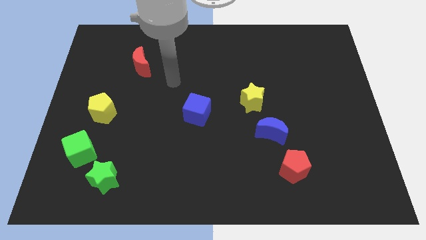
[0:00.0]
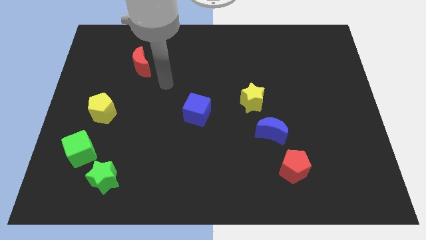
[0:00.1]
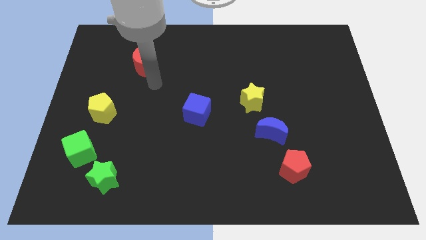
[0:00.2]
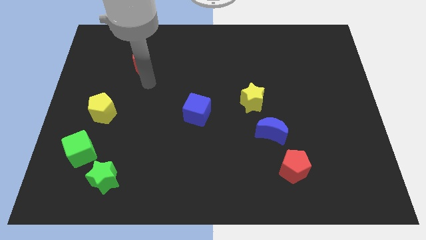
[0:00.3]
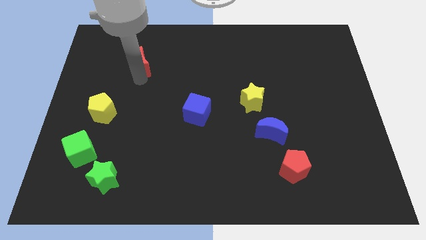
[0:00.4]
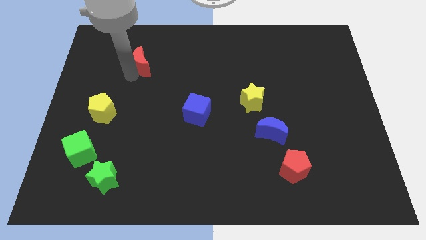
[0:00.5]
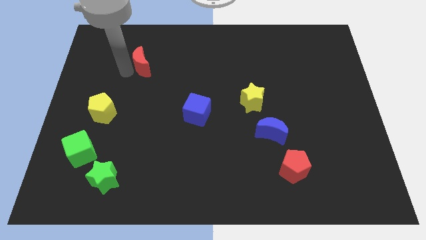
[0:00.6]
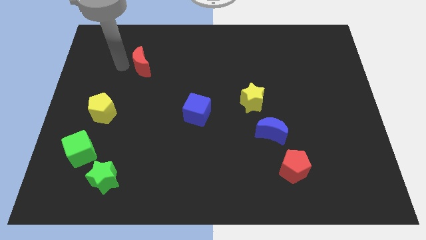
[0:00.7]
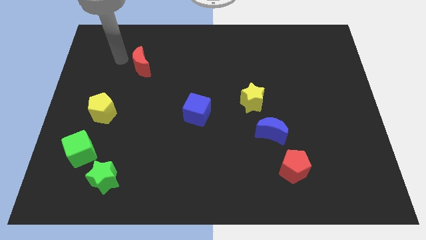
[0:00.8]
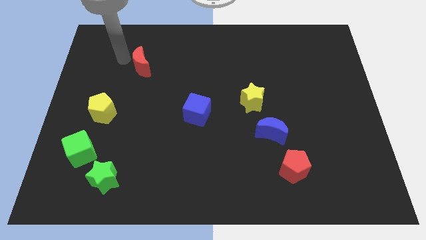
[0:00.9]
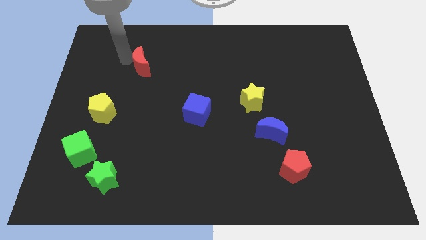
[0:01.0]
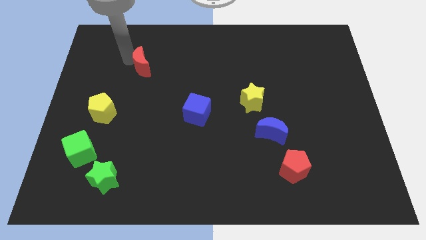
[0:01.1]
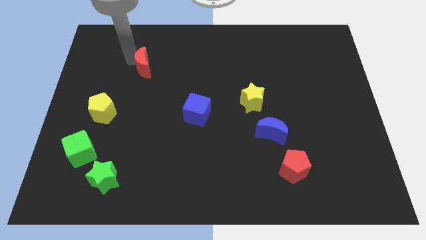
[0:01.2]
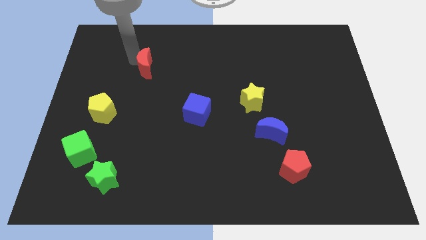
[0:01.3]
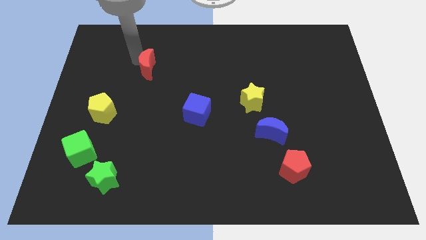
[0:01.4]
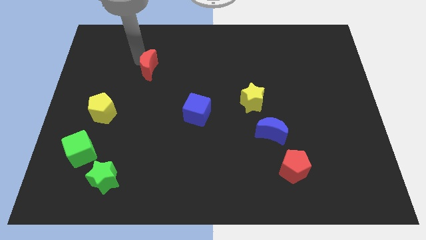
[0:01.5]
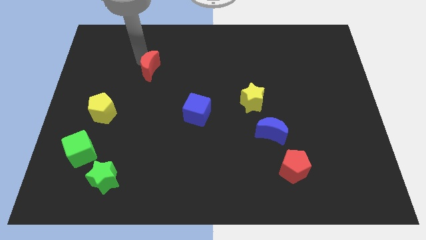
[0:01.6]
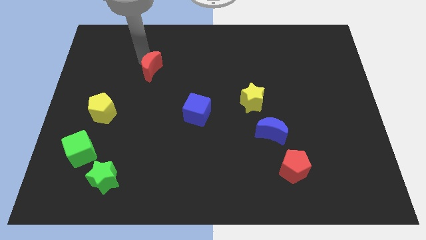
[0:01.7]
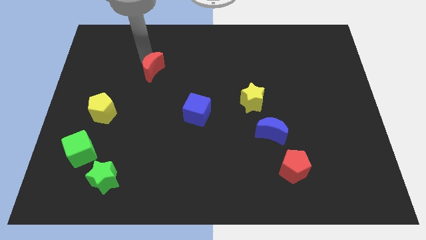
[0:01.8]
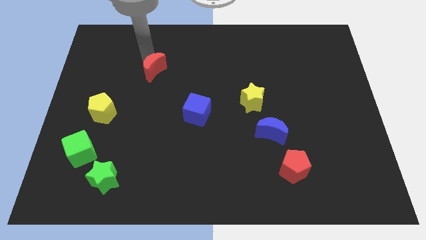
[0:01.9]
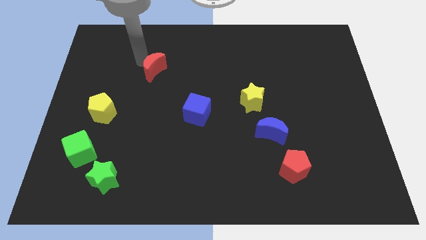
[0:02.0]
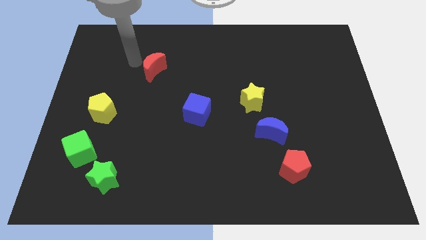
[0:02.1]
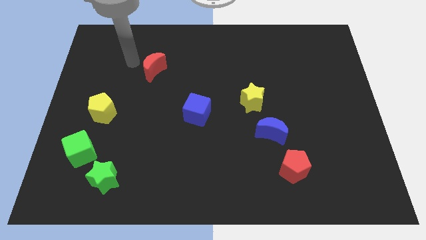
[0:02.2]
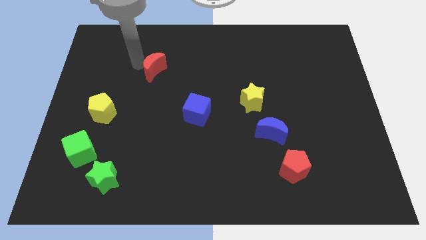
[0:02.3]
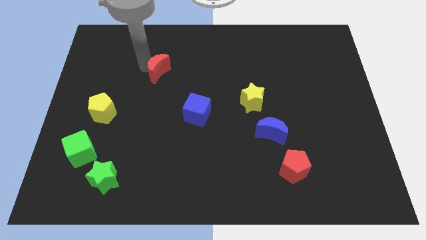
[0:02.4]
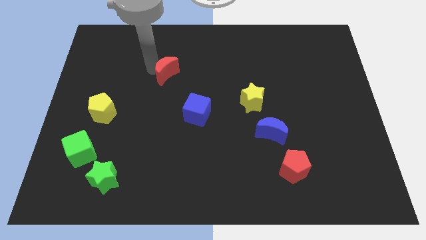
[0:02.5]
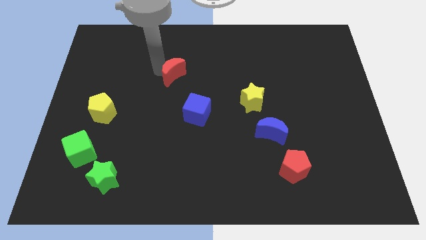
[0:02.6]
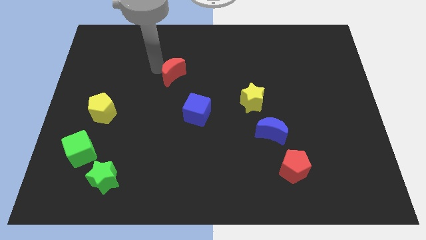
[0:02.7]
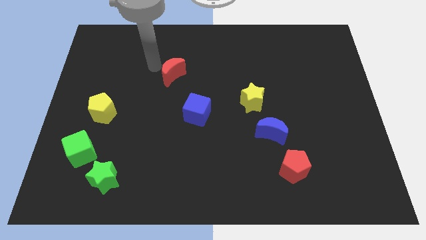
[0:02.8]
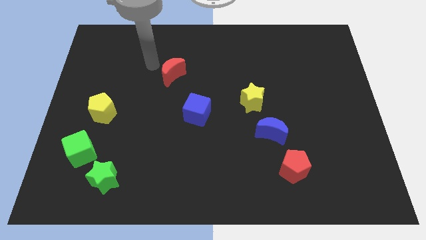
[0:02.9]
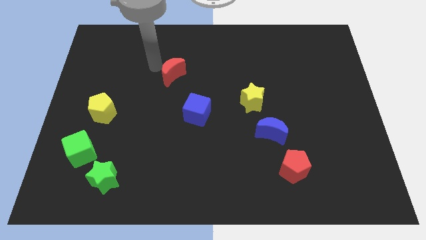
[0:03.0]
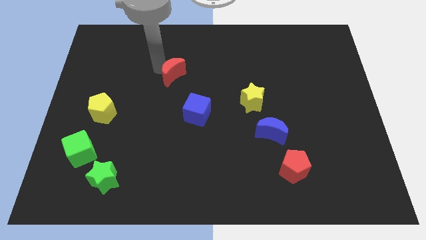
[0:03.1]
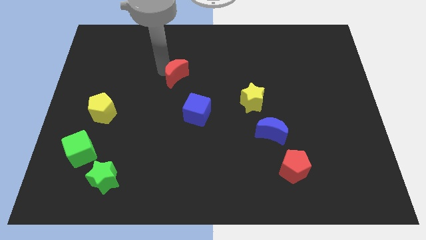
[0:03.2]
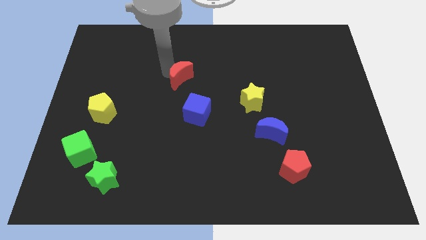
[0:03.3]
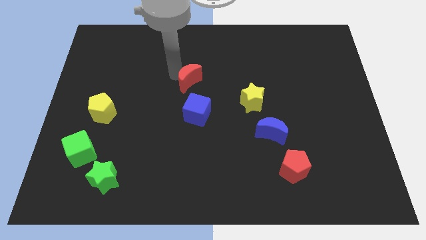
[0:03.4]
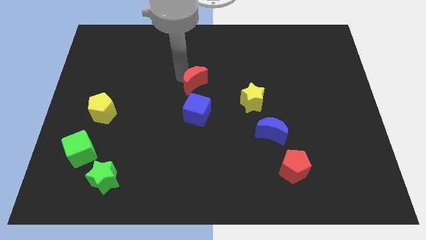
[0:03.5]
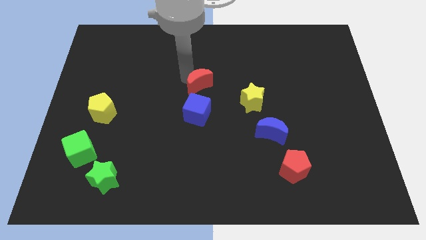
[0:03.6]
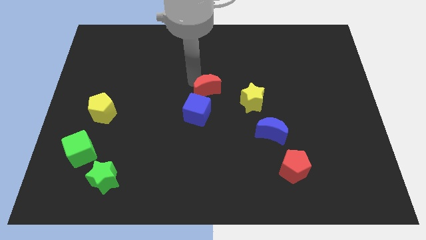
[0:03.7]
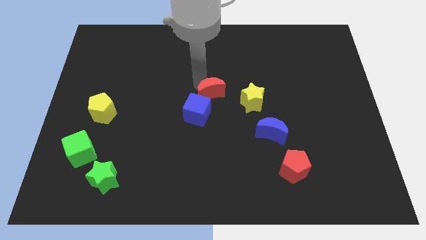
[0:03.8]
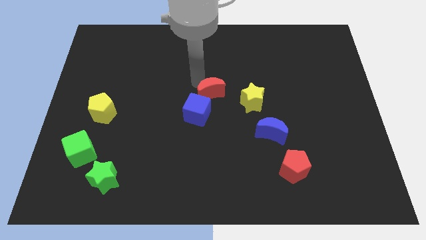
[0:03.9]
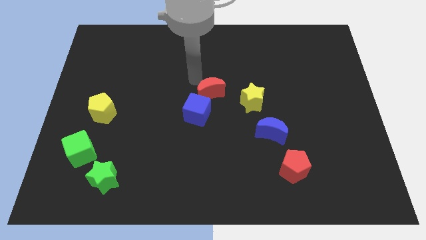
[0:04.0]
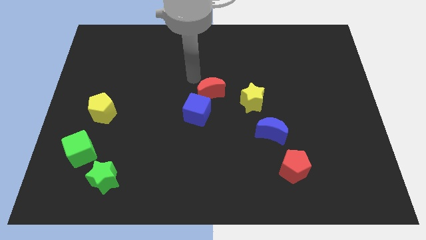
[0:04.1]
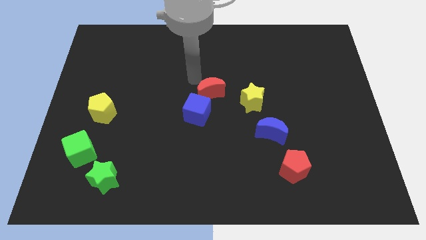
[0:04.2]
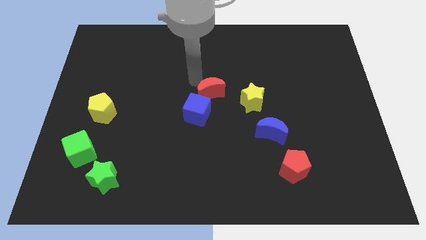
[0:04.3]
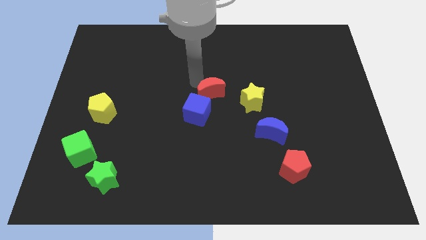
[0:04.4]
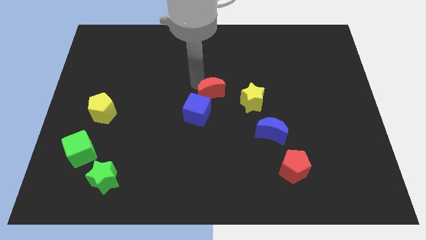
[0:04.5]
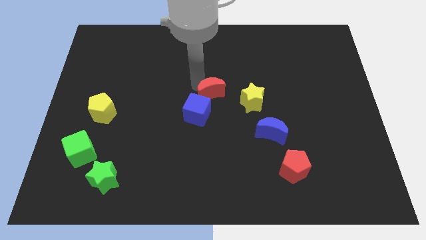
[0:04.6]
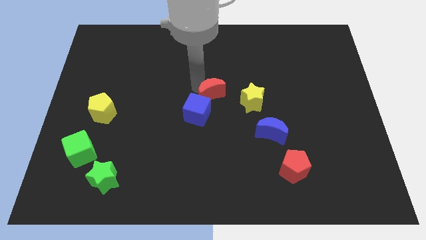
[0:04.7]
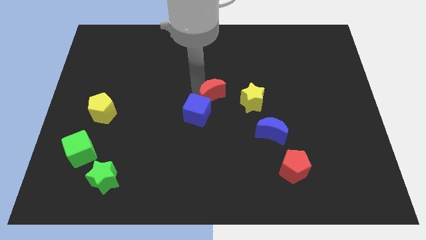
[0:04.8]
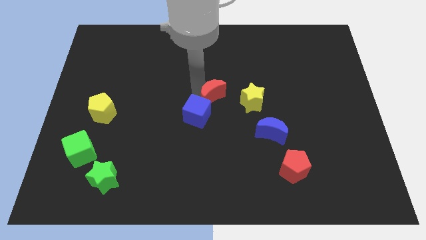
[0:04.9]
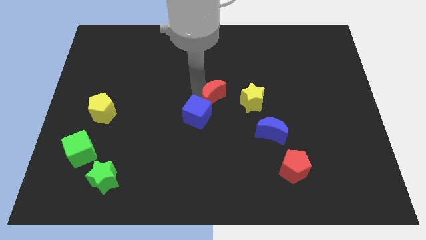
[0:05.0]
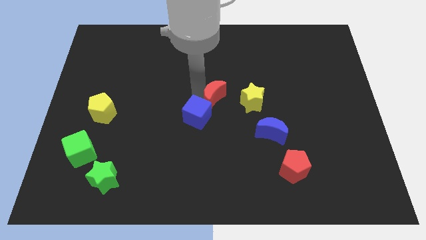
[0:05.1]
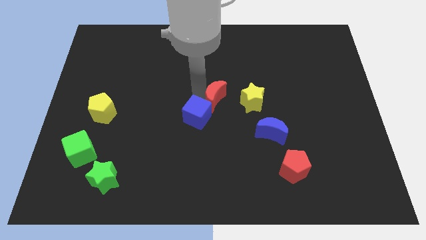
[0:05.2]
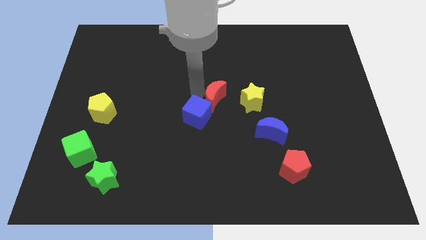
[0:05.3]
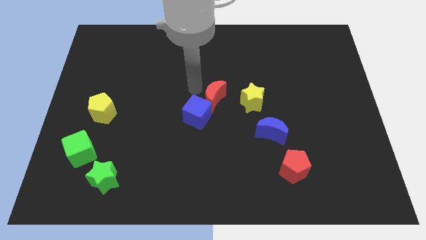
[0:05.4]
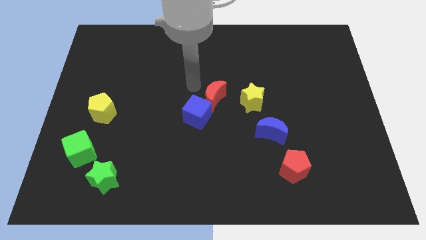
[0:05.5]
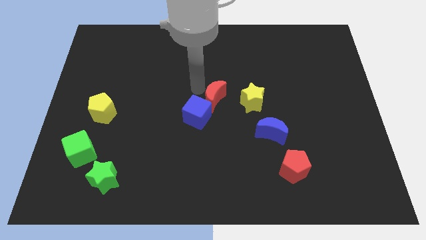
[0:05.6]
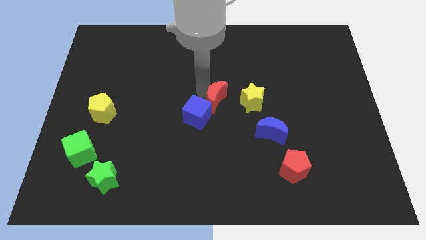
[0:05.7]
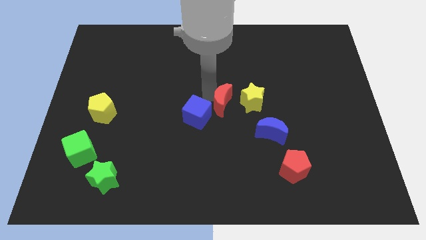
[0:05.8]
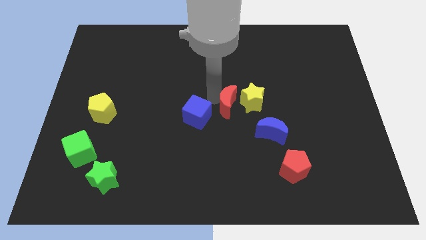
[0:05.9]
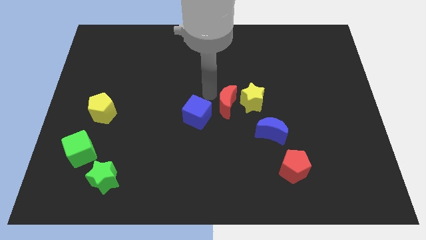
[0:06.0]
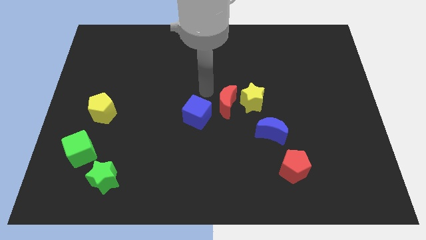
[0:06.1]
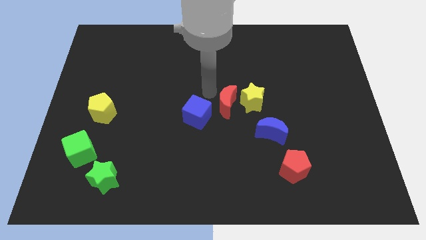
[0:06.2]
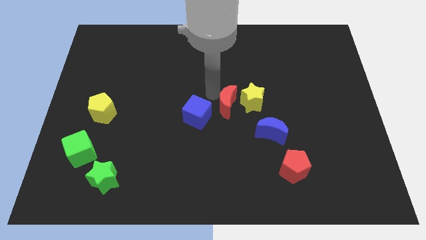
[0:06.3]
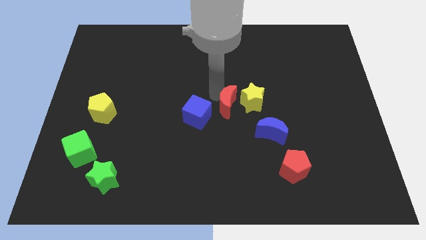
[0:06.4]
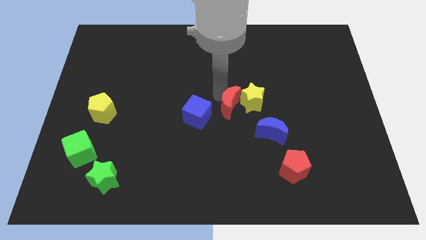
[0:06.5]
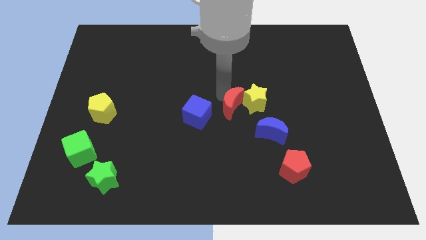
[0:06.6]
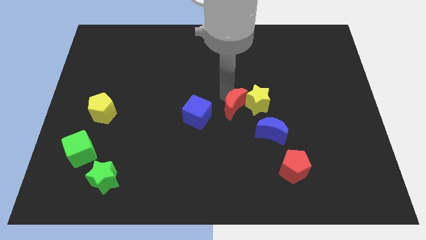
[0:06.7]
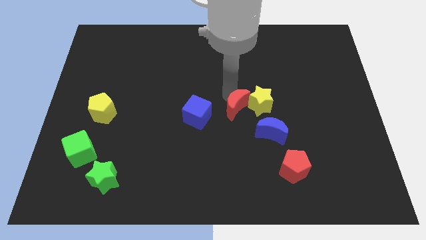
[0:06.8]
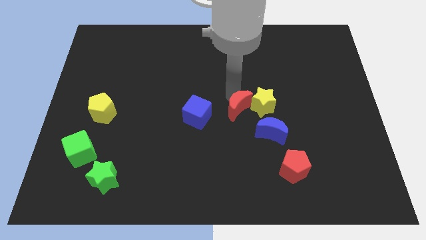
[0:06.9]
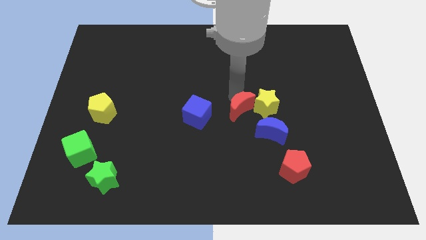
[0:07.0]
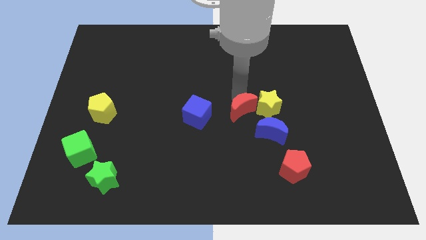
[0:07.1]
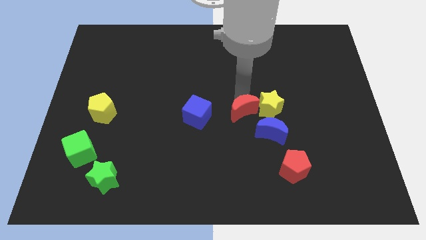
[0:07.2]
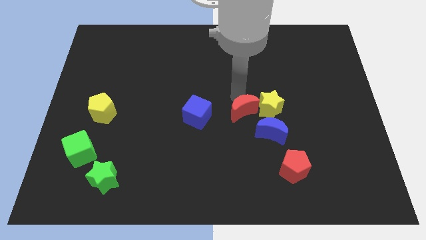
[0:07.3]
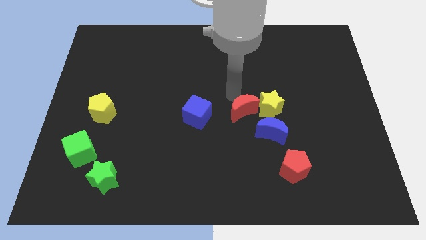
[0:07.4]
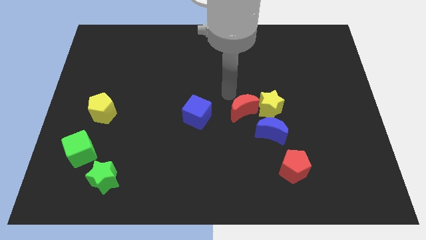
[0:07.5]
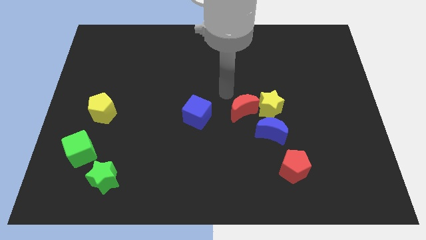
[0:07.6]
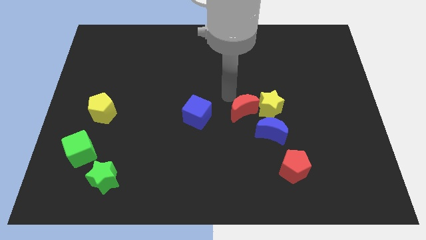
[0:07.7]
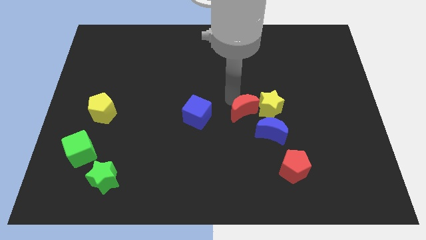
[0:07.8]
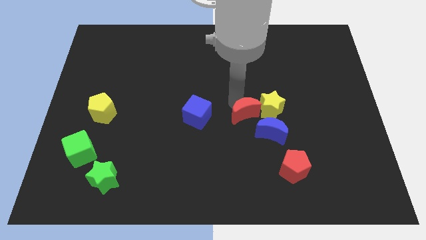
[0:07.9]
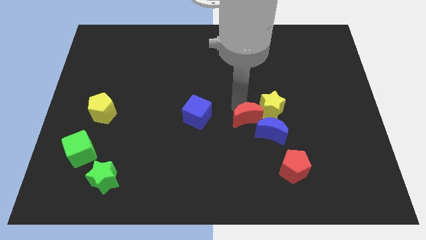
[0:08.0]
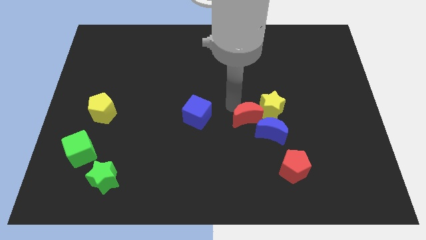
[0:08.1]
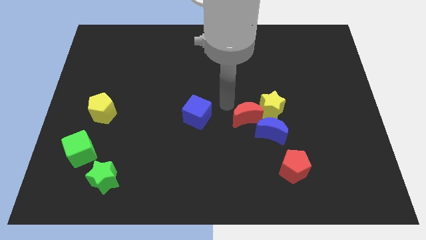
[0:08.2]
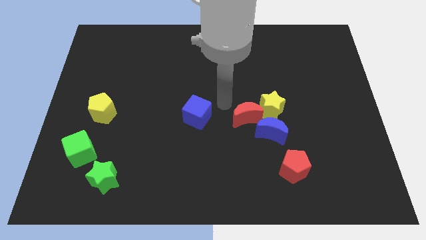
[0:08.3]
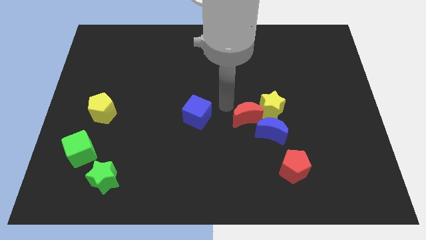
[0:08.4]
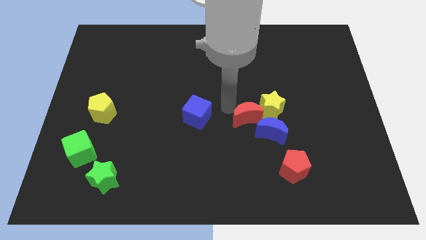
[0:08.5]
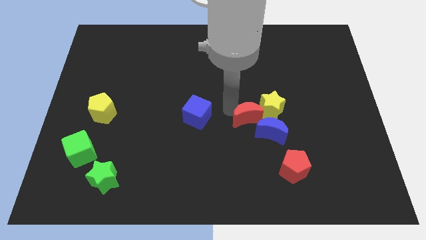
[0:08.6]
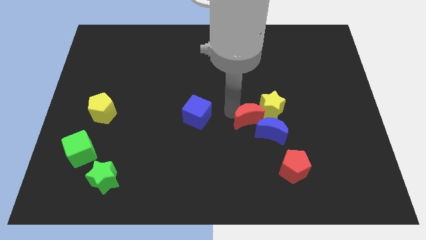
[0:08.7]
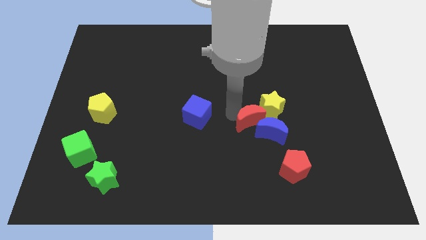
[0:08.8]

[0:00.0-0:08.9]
put the red moon close to the blue moon
